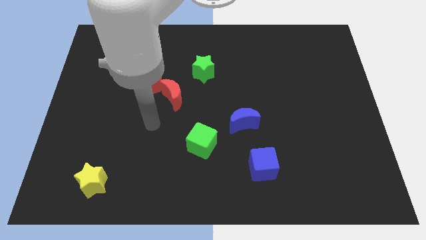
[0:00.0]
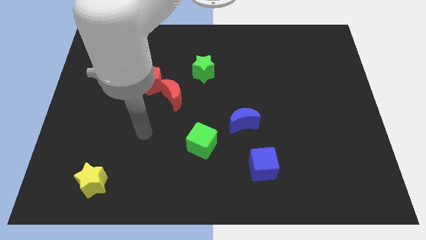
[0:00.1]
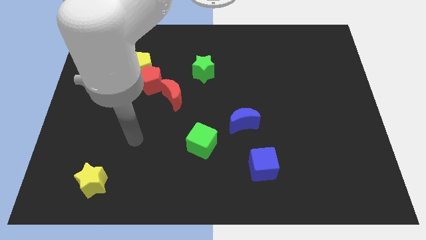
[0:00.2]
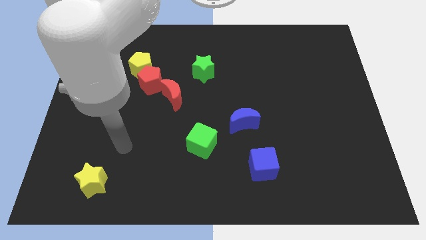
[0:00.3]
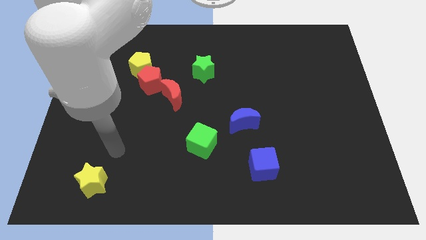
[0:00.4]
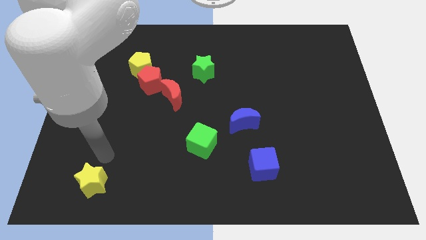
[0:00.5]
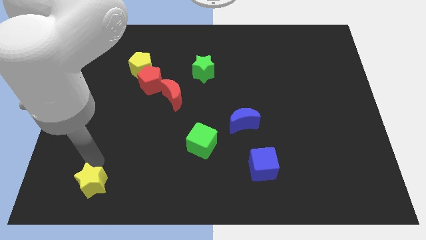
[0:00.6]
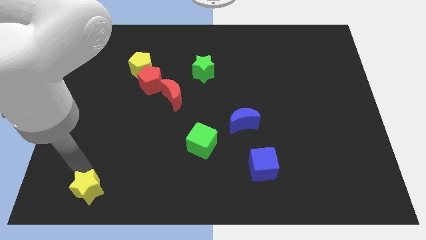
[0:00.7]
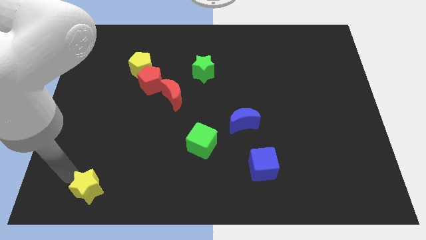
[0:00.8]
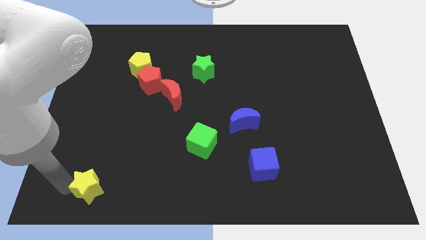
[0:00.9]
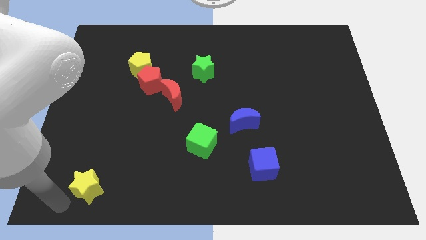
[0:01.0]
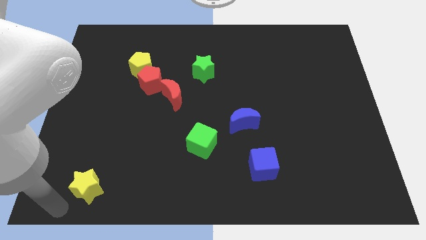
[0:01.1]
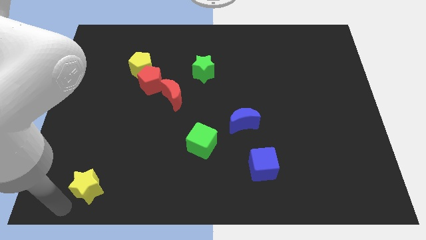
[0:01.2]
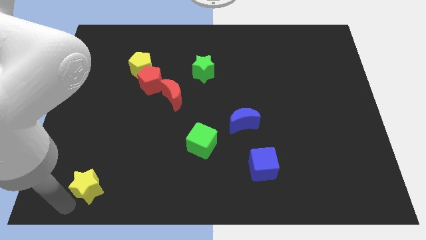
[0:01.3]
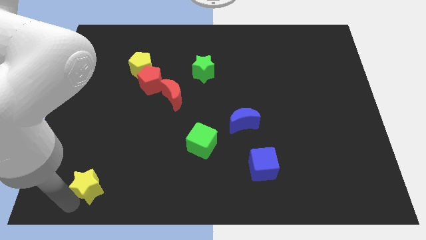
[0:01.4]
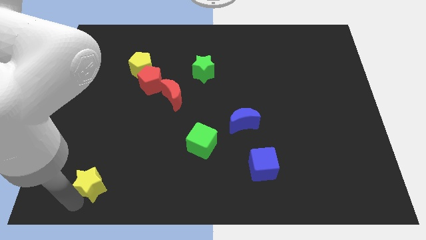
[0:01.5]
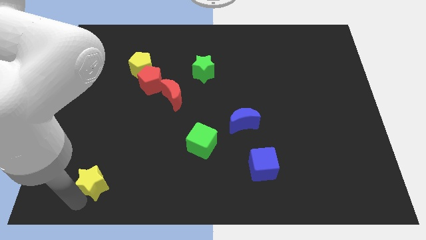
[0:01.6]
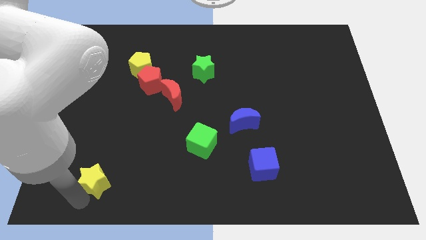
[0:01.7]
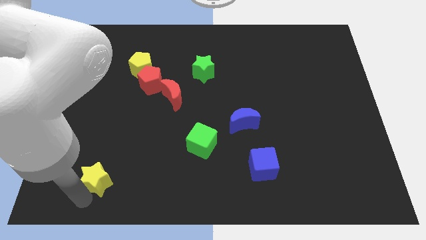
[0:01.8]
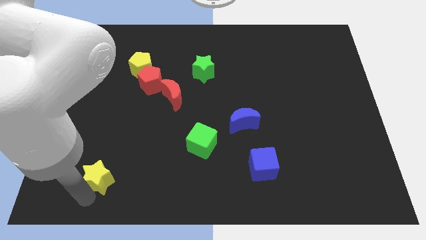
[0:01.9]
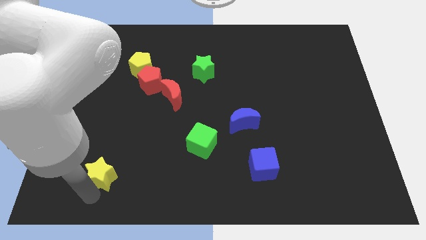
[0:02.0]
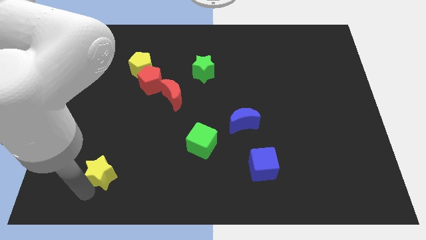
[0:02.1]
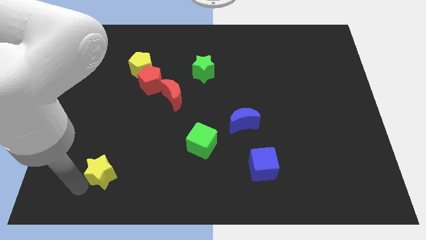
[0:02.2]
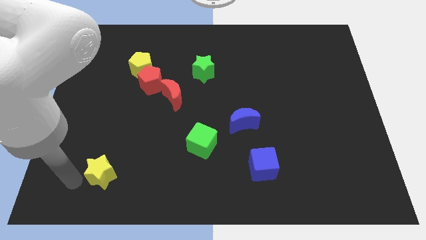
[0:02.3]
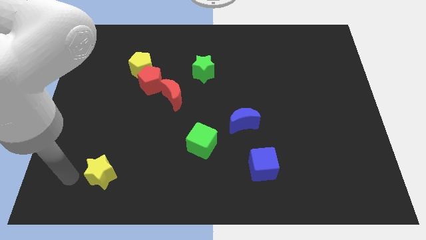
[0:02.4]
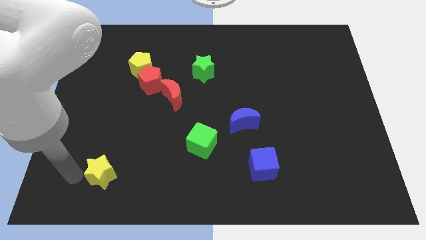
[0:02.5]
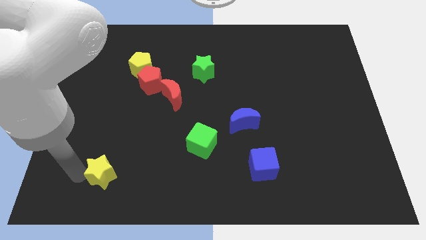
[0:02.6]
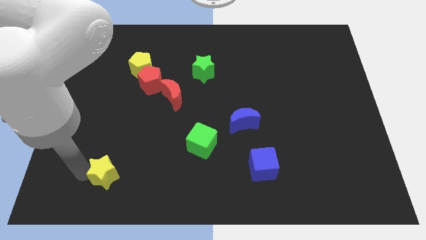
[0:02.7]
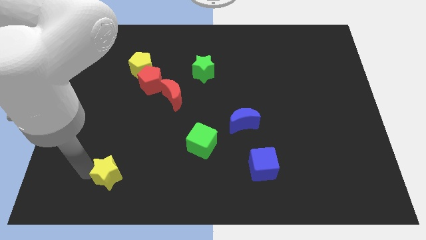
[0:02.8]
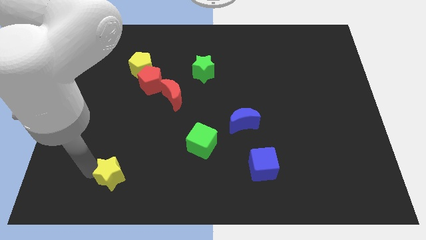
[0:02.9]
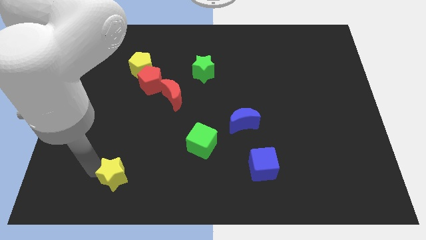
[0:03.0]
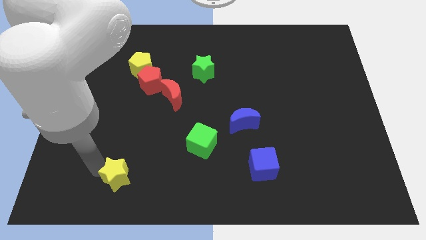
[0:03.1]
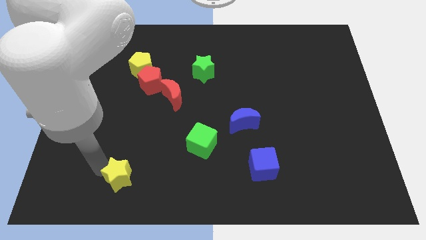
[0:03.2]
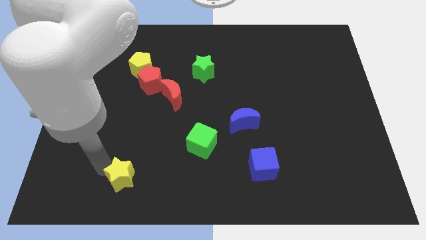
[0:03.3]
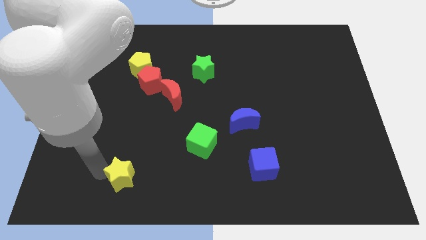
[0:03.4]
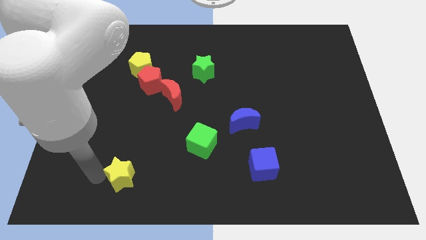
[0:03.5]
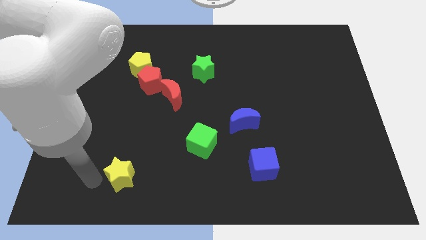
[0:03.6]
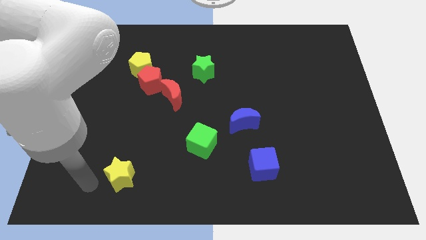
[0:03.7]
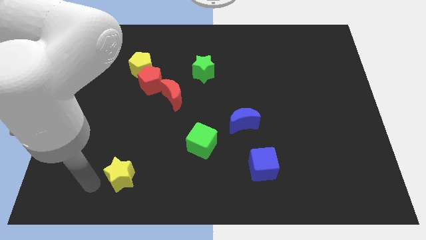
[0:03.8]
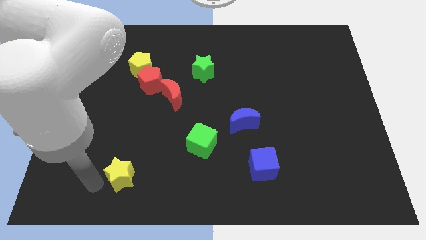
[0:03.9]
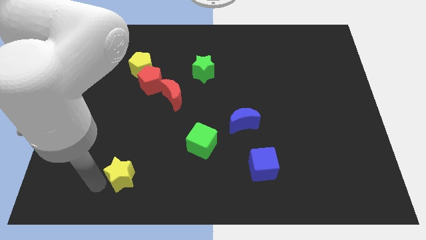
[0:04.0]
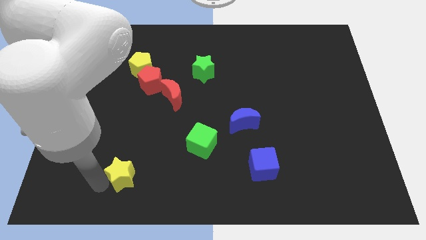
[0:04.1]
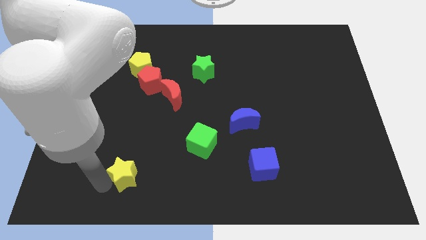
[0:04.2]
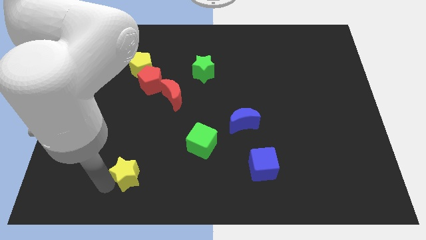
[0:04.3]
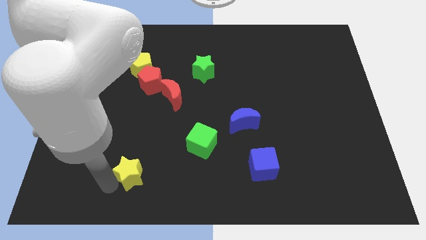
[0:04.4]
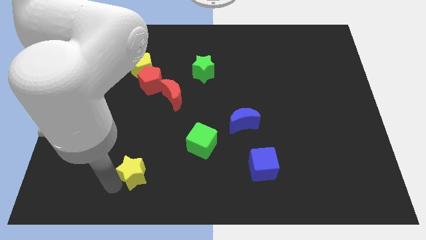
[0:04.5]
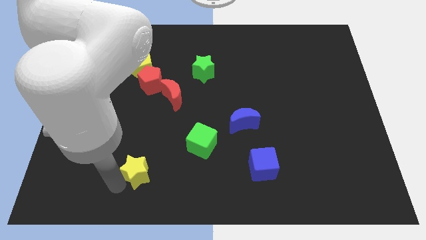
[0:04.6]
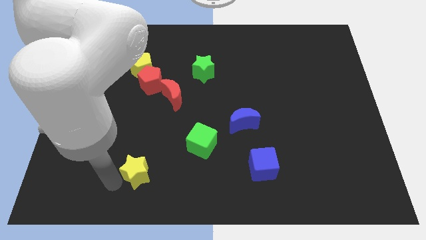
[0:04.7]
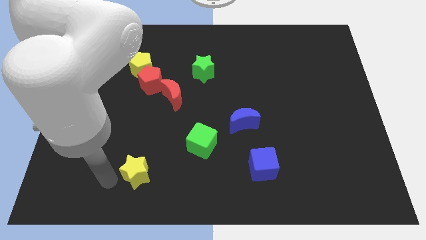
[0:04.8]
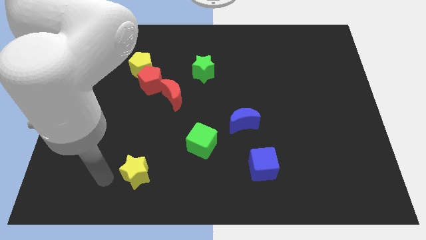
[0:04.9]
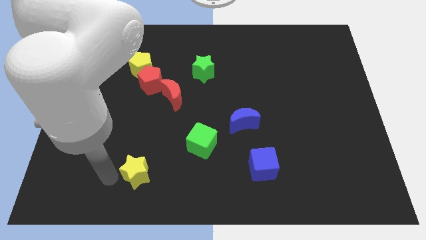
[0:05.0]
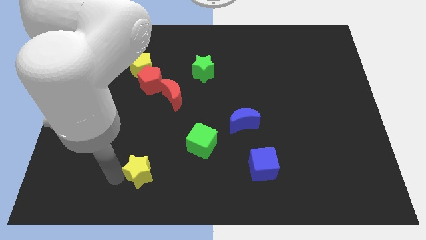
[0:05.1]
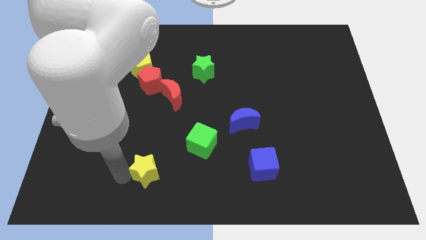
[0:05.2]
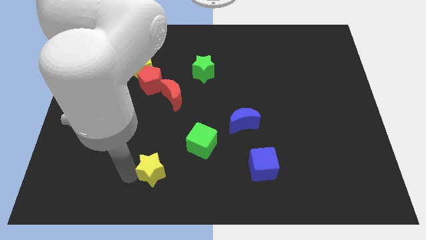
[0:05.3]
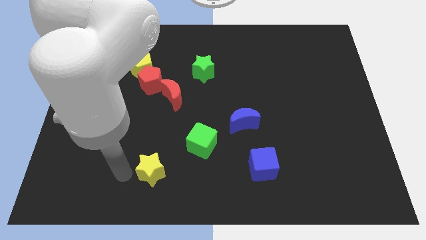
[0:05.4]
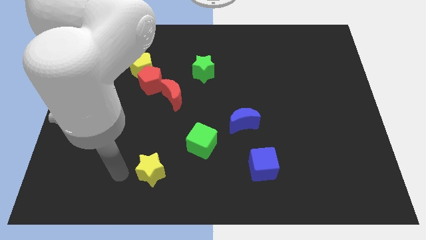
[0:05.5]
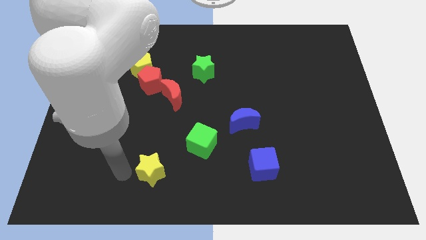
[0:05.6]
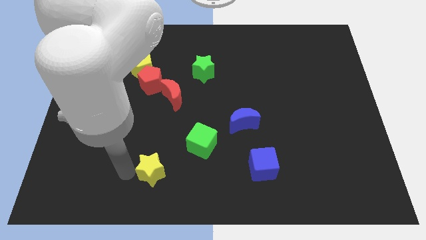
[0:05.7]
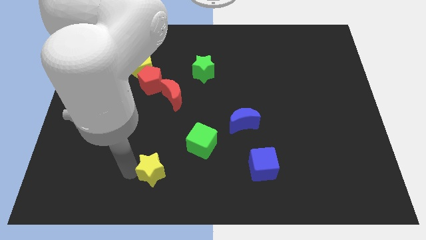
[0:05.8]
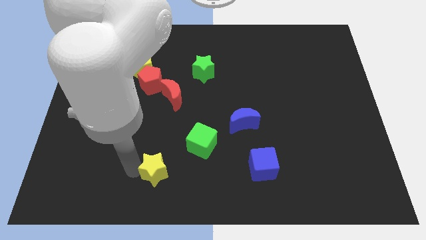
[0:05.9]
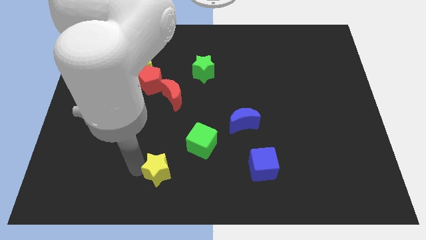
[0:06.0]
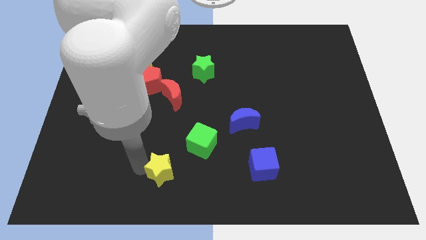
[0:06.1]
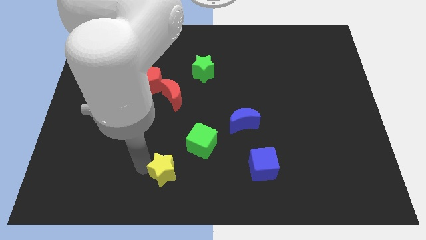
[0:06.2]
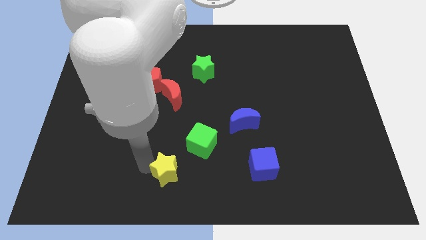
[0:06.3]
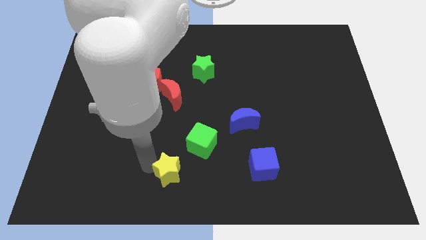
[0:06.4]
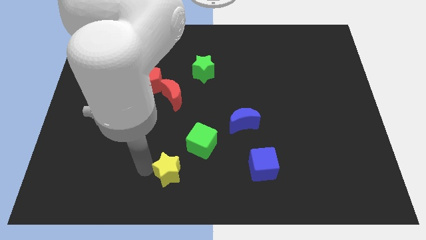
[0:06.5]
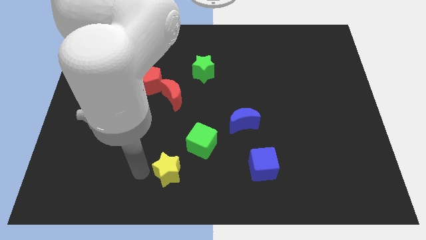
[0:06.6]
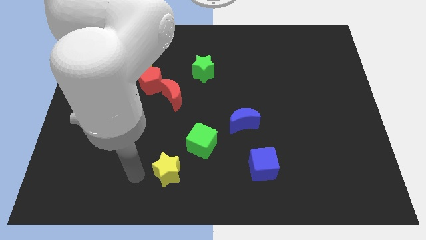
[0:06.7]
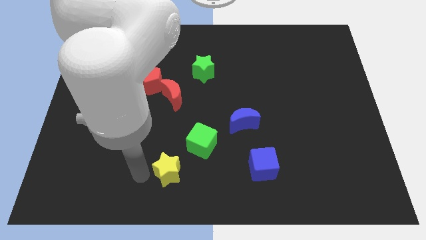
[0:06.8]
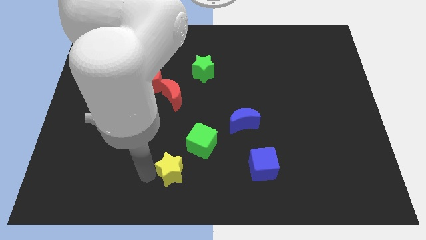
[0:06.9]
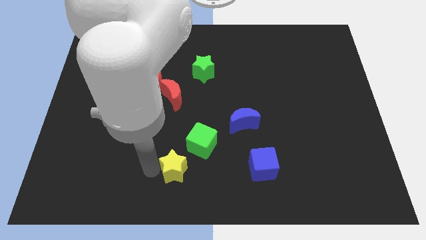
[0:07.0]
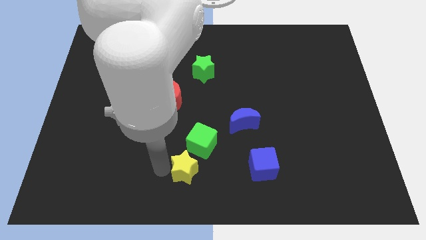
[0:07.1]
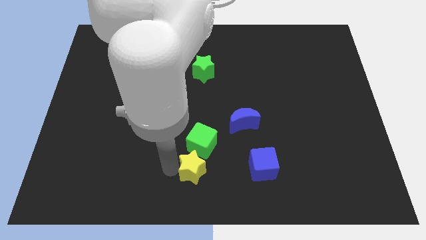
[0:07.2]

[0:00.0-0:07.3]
slide the yellow star to the right

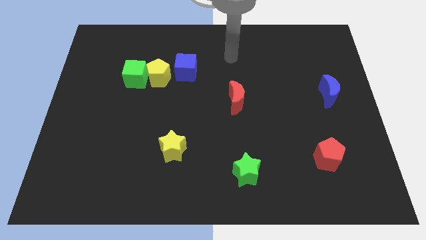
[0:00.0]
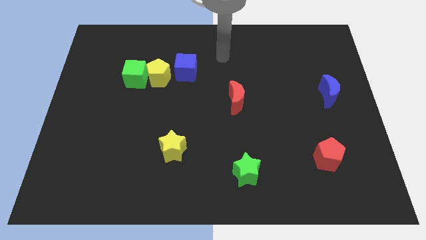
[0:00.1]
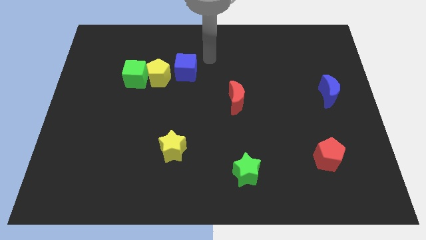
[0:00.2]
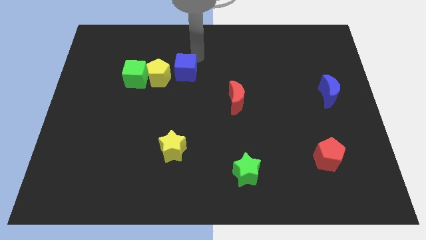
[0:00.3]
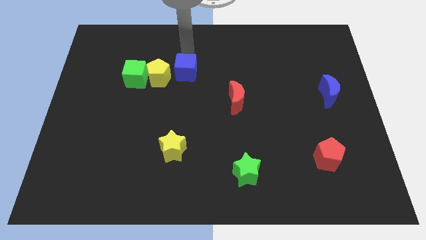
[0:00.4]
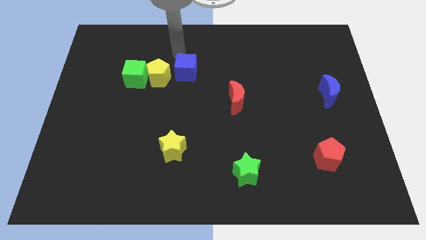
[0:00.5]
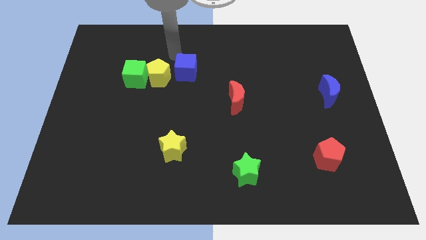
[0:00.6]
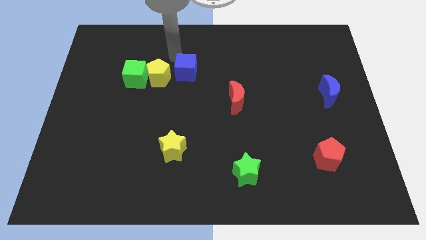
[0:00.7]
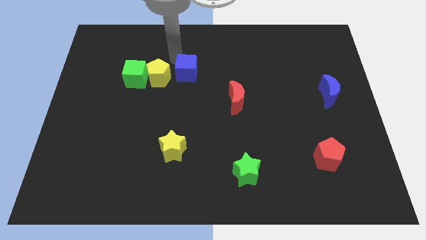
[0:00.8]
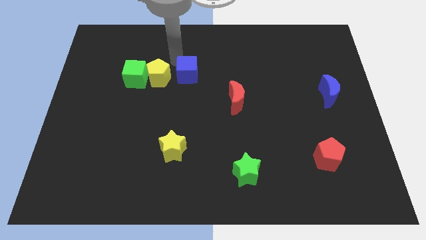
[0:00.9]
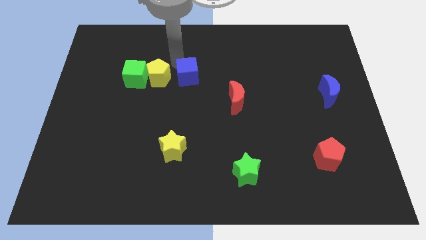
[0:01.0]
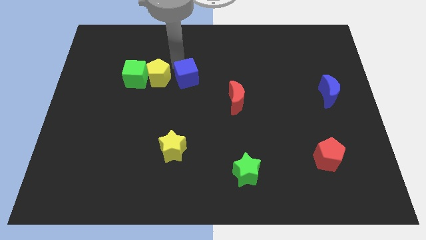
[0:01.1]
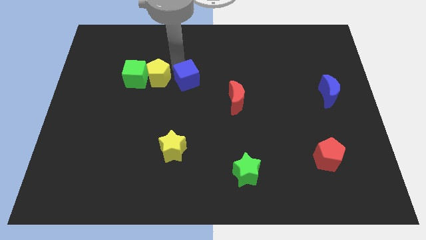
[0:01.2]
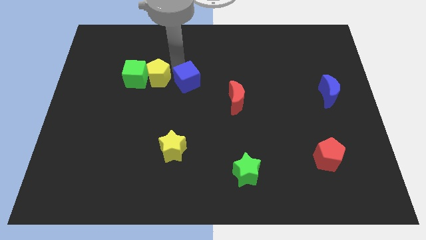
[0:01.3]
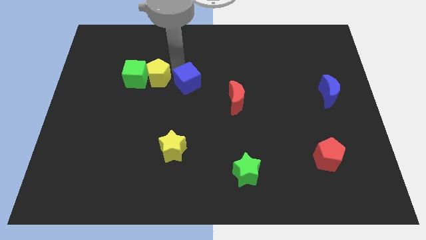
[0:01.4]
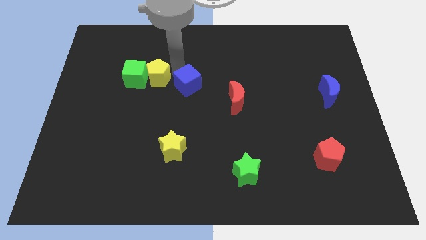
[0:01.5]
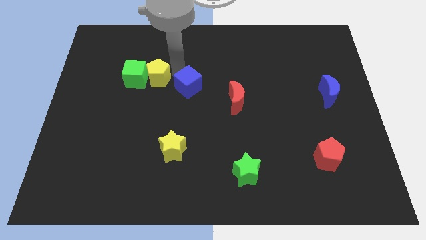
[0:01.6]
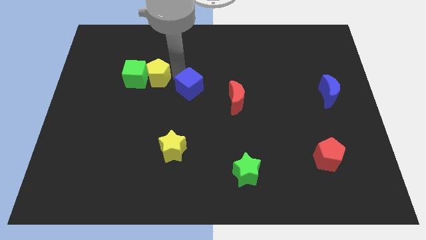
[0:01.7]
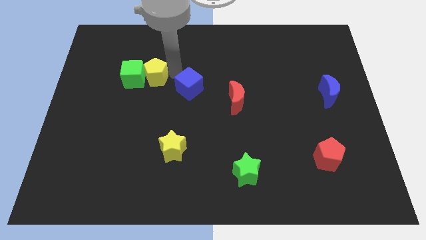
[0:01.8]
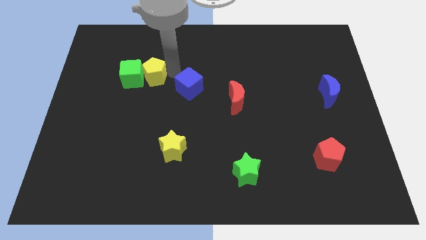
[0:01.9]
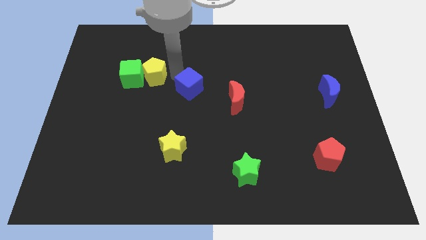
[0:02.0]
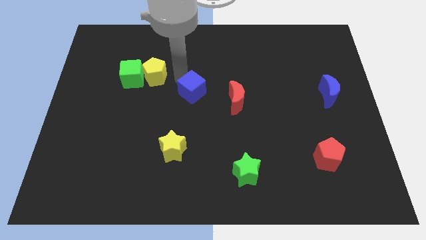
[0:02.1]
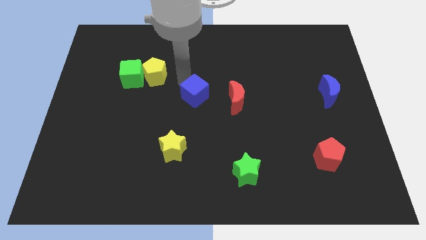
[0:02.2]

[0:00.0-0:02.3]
push the blue cube downwards and to the right a little
